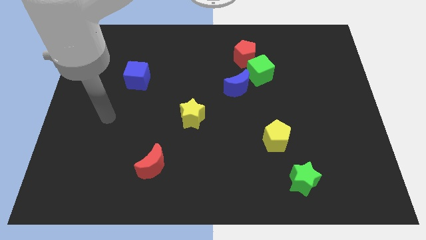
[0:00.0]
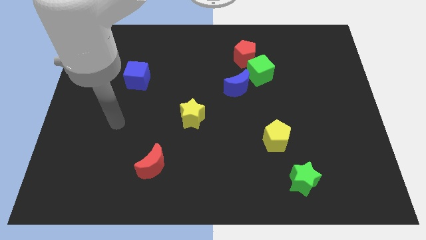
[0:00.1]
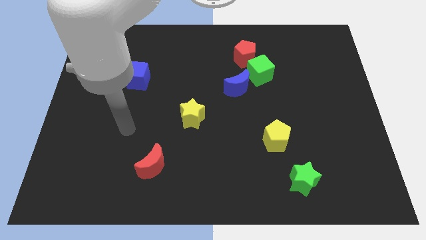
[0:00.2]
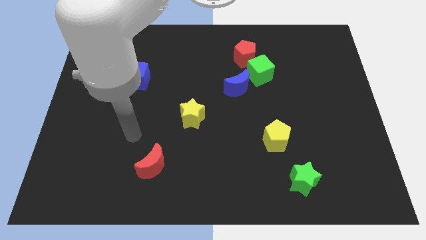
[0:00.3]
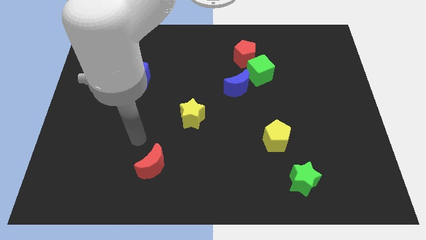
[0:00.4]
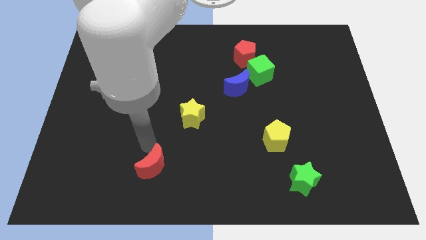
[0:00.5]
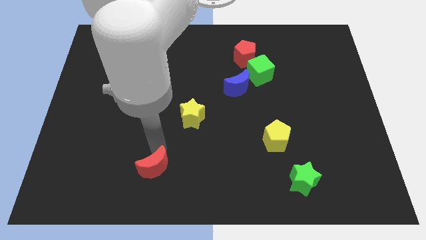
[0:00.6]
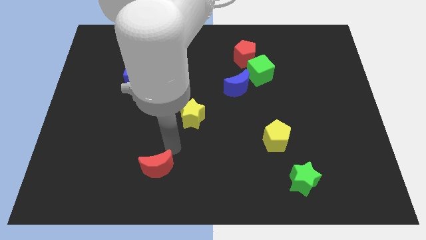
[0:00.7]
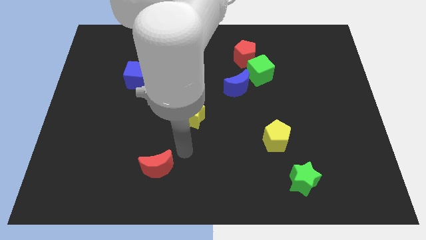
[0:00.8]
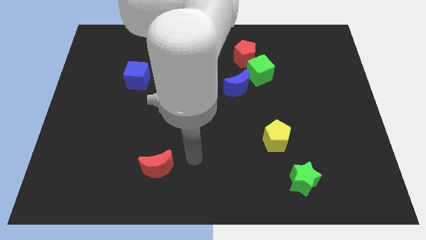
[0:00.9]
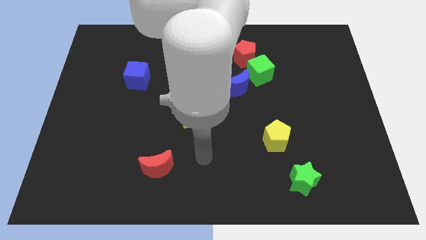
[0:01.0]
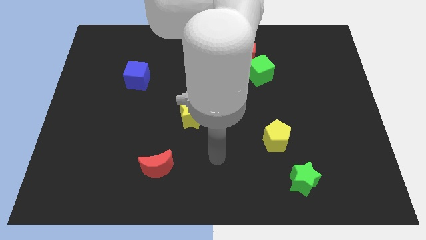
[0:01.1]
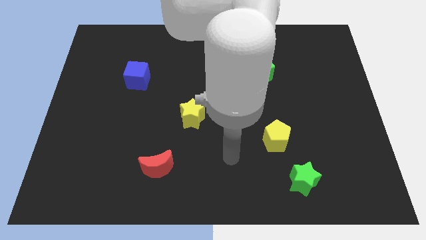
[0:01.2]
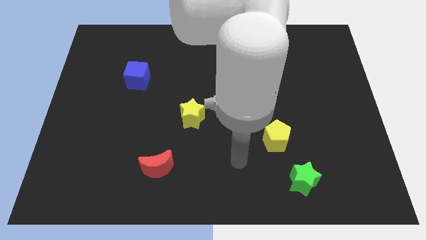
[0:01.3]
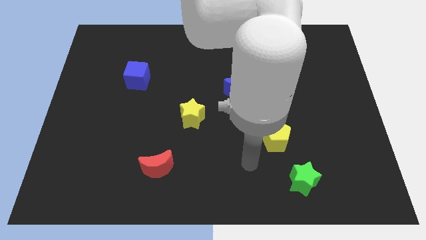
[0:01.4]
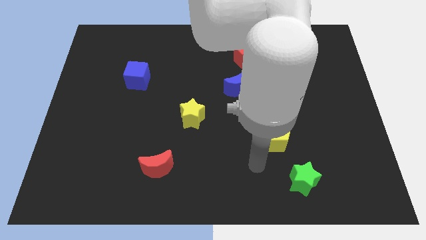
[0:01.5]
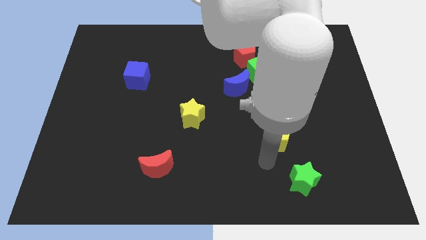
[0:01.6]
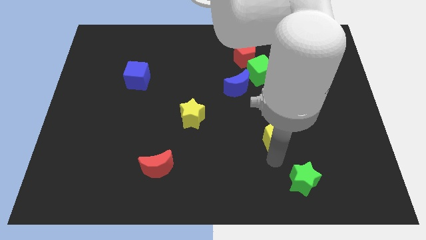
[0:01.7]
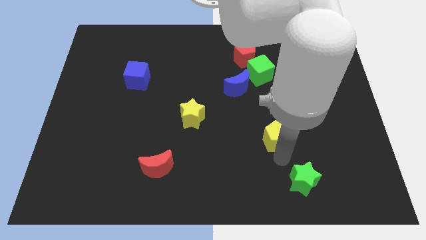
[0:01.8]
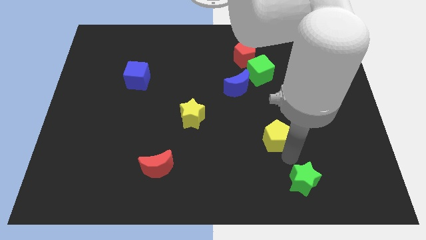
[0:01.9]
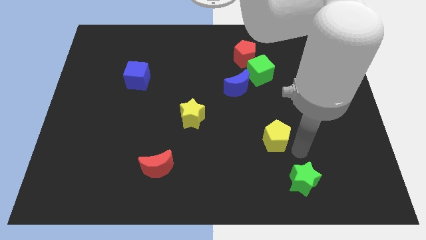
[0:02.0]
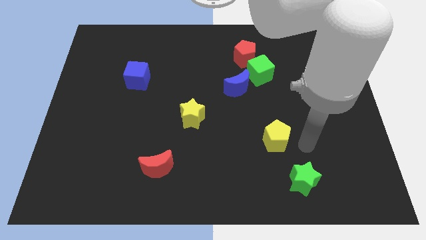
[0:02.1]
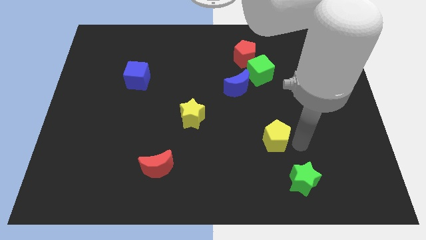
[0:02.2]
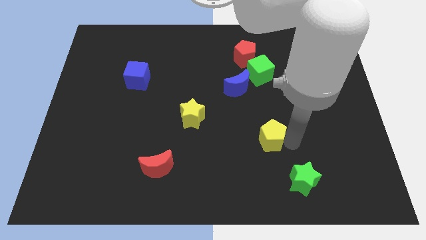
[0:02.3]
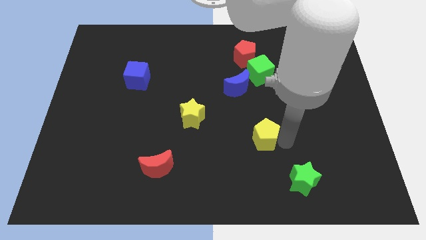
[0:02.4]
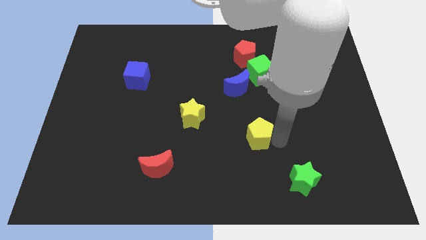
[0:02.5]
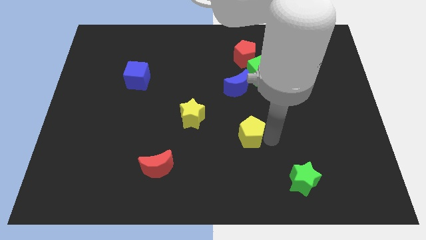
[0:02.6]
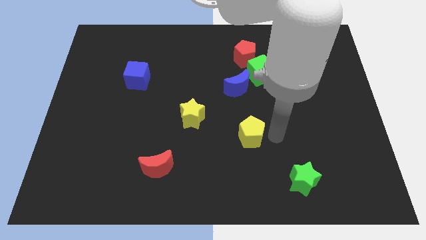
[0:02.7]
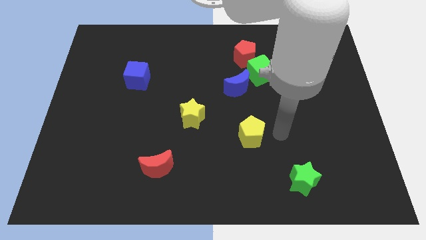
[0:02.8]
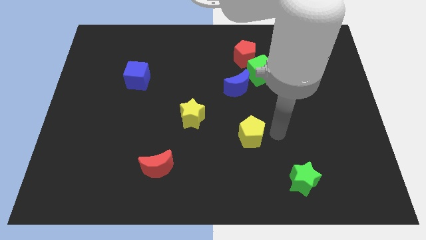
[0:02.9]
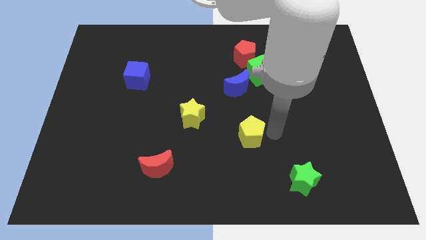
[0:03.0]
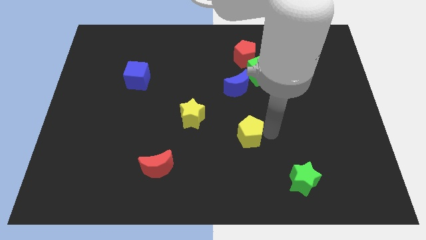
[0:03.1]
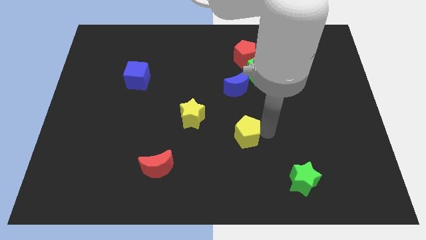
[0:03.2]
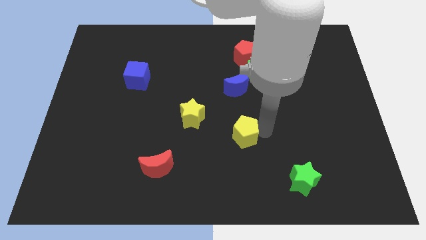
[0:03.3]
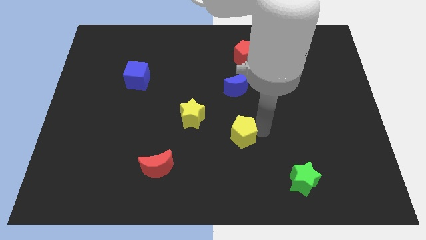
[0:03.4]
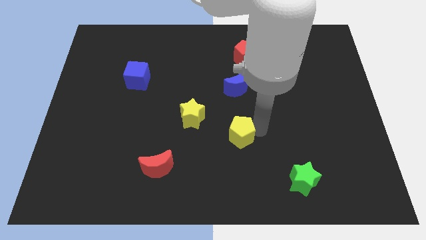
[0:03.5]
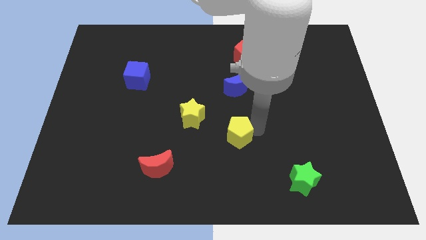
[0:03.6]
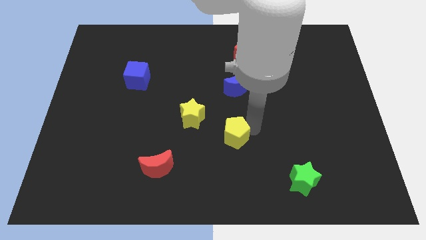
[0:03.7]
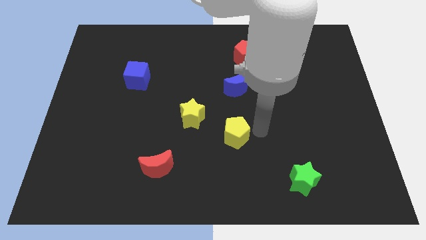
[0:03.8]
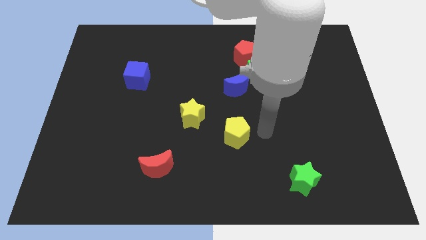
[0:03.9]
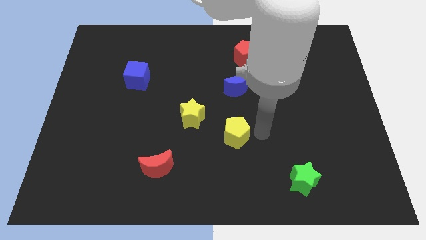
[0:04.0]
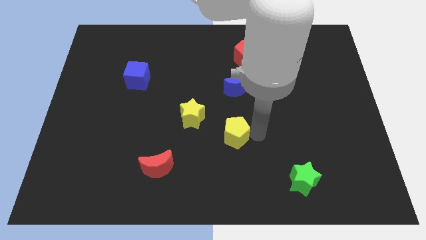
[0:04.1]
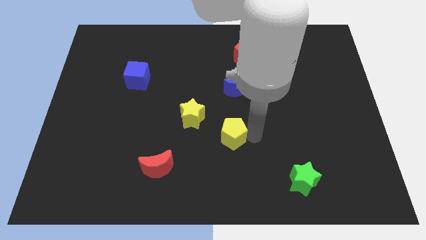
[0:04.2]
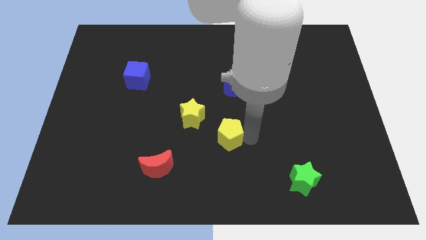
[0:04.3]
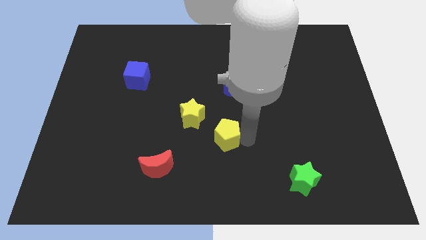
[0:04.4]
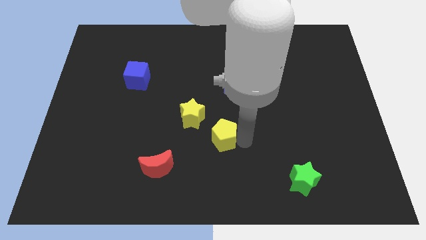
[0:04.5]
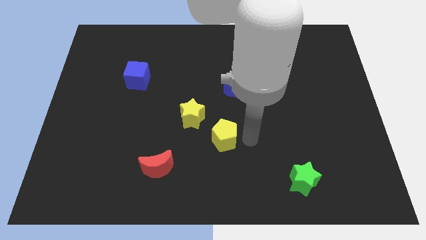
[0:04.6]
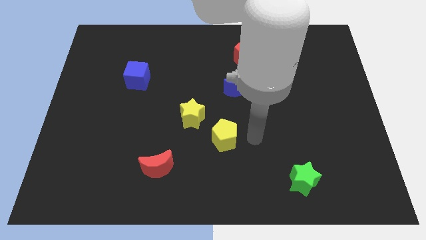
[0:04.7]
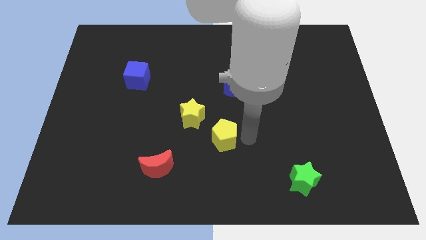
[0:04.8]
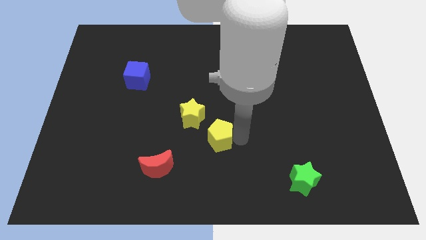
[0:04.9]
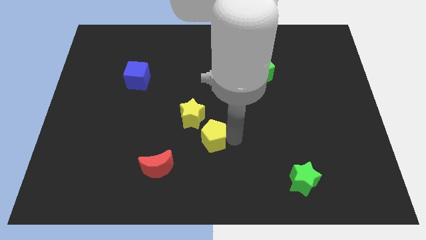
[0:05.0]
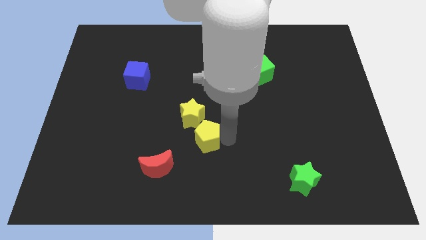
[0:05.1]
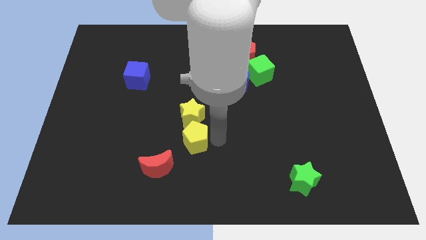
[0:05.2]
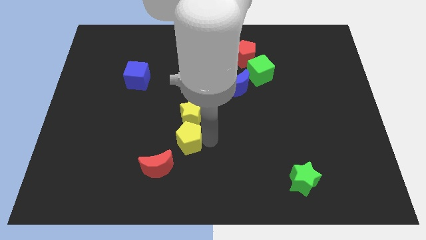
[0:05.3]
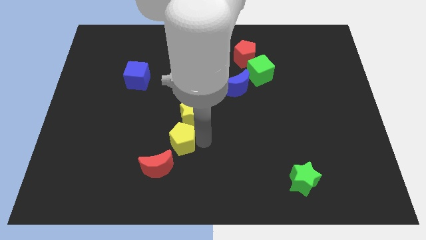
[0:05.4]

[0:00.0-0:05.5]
slide the yellow pentagon to the left

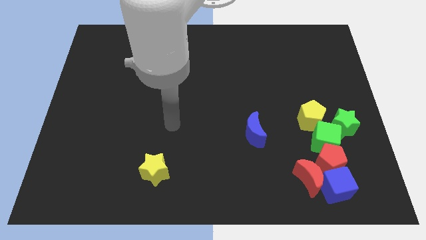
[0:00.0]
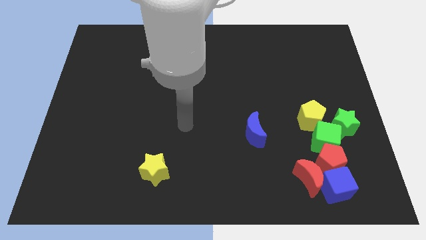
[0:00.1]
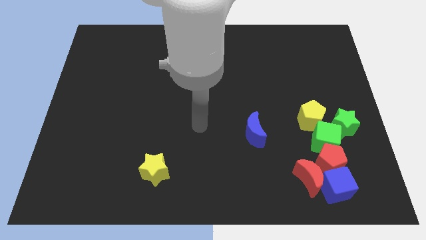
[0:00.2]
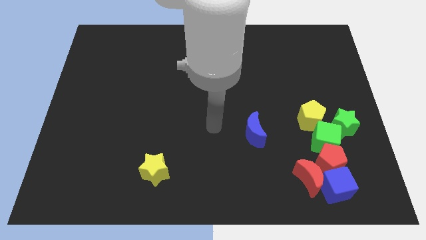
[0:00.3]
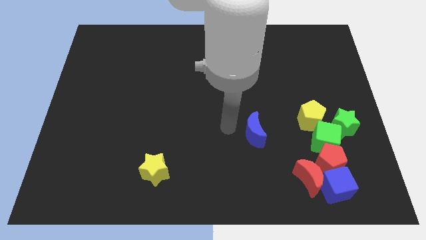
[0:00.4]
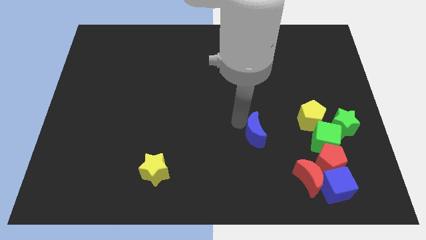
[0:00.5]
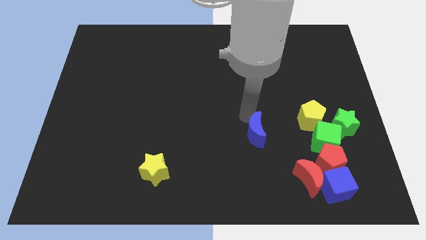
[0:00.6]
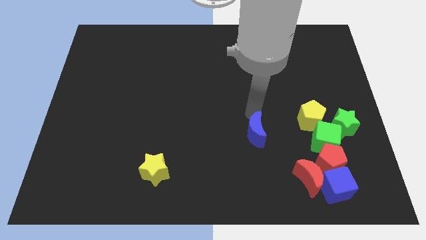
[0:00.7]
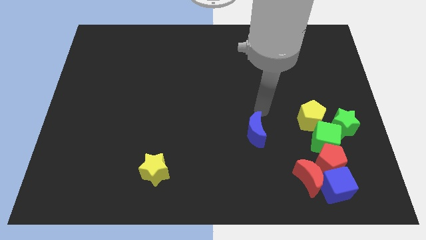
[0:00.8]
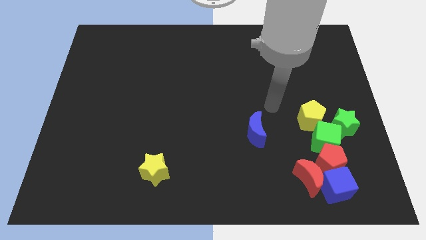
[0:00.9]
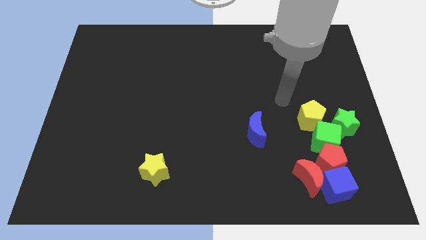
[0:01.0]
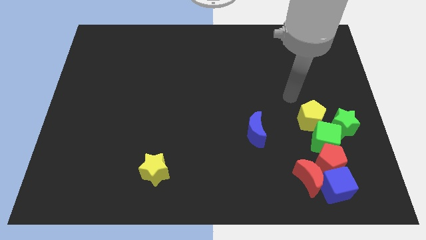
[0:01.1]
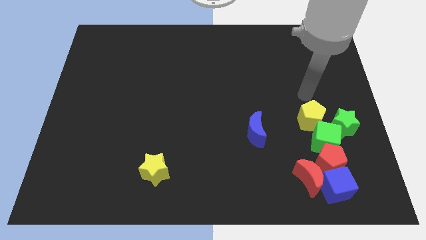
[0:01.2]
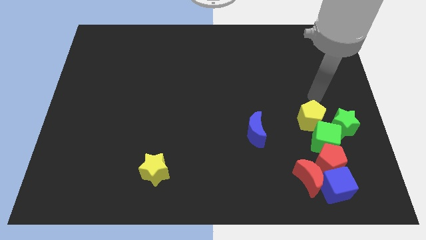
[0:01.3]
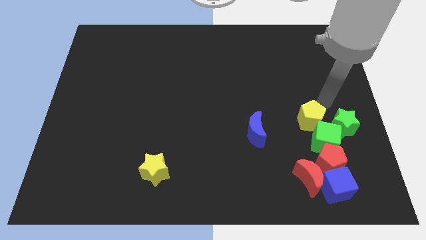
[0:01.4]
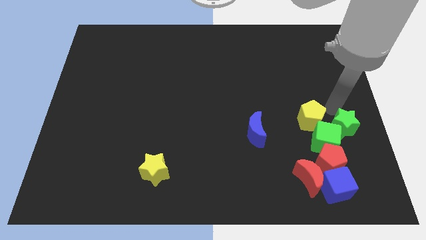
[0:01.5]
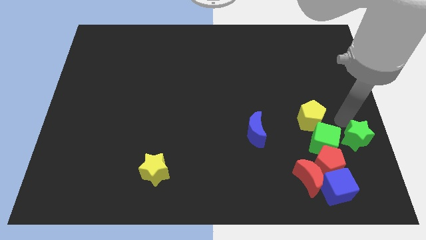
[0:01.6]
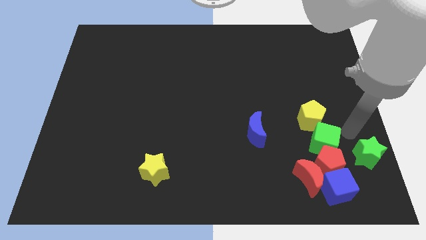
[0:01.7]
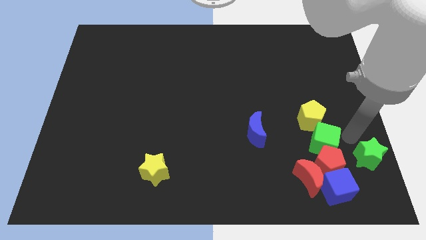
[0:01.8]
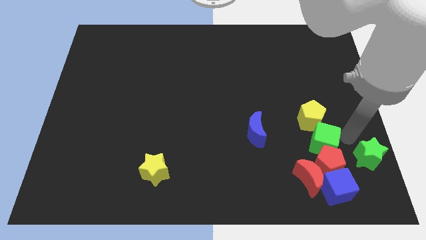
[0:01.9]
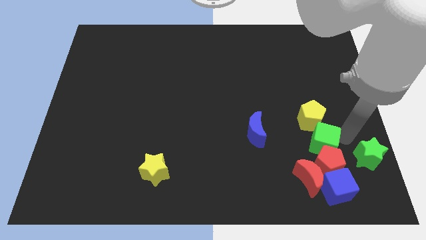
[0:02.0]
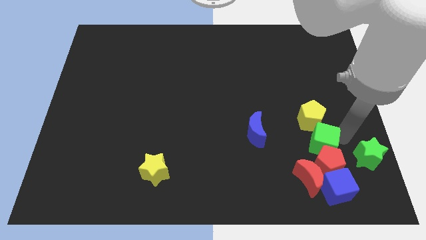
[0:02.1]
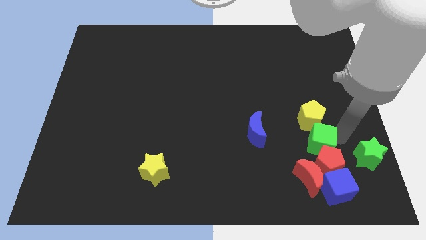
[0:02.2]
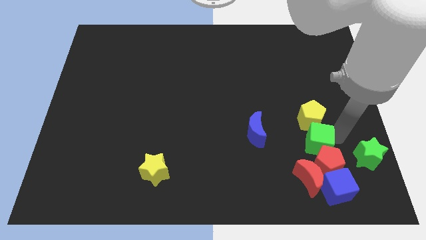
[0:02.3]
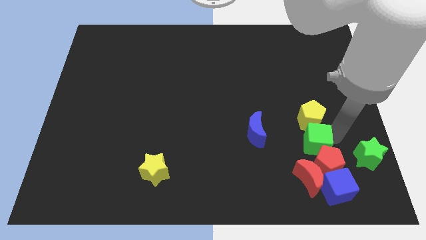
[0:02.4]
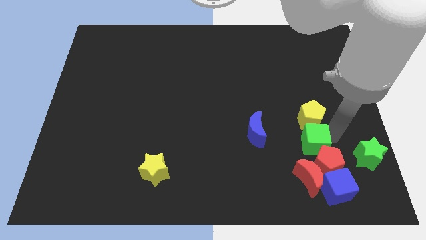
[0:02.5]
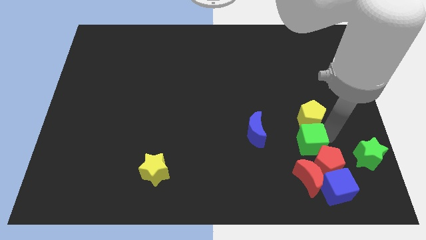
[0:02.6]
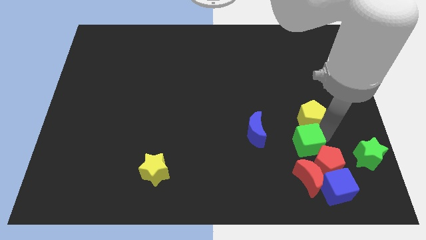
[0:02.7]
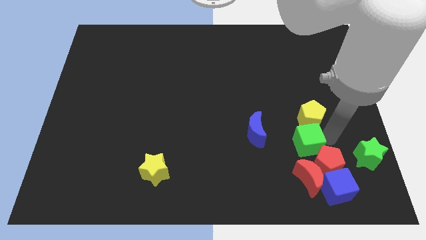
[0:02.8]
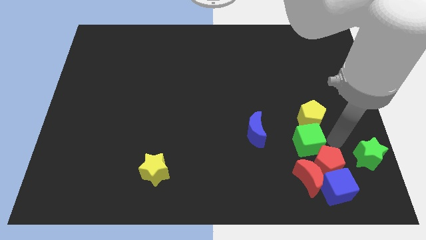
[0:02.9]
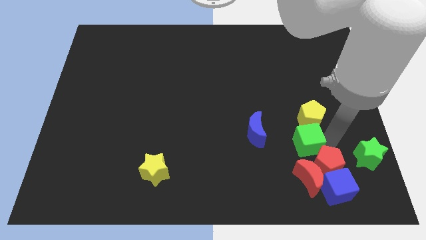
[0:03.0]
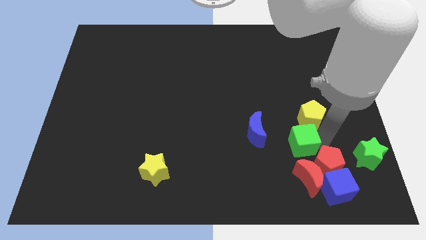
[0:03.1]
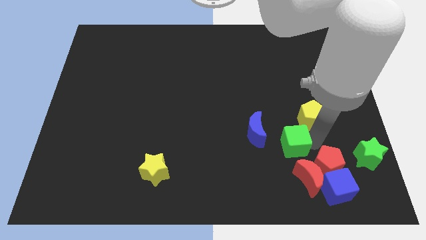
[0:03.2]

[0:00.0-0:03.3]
slide the green cube a little bit to the left
